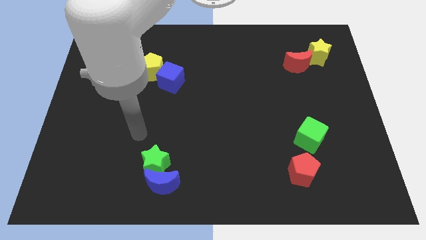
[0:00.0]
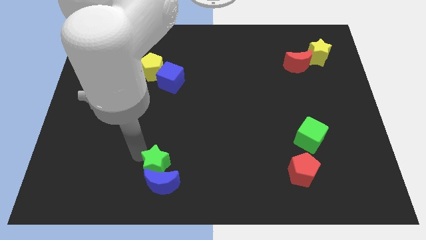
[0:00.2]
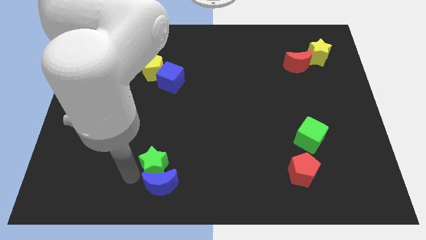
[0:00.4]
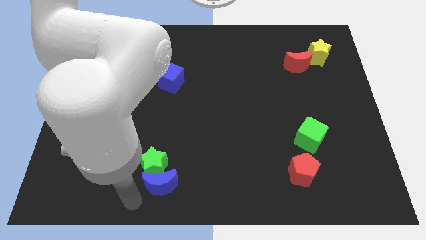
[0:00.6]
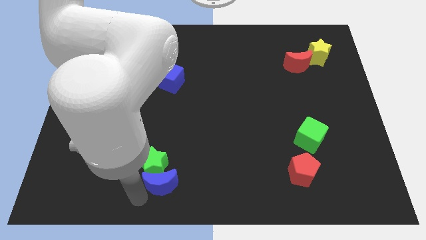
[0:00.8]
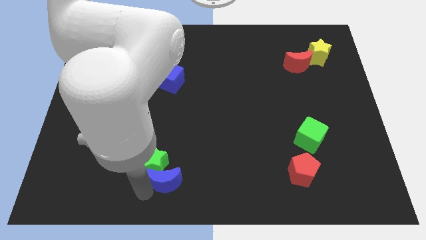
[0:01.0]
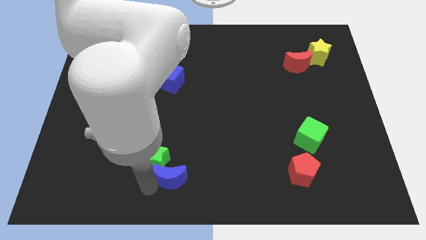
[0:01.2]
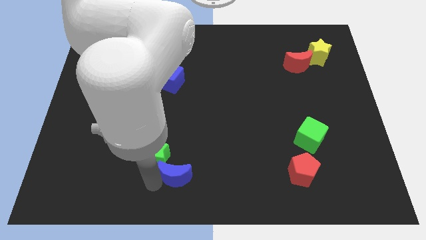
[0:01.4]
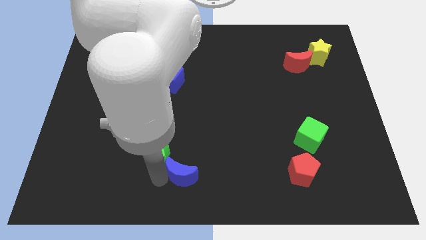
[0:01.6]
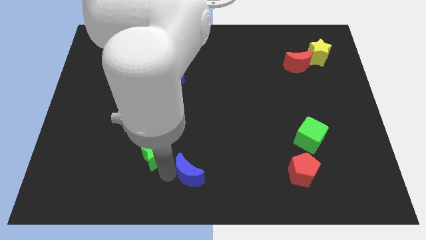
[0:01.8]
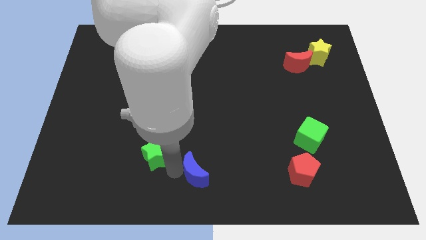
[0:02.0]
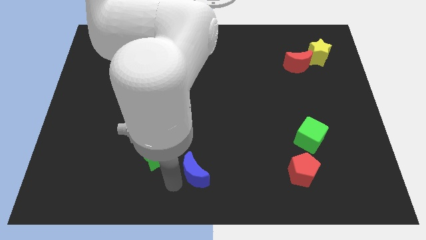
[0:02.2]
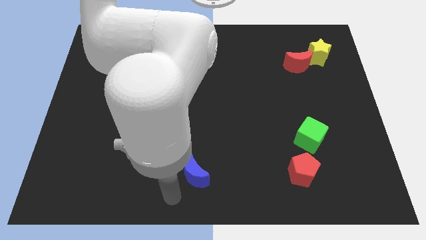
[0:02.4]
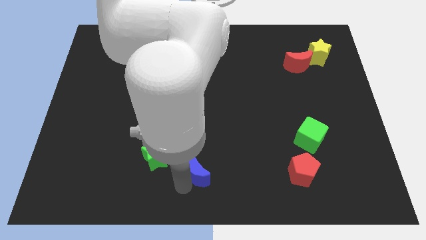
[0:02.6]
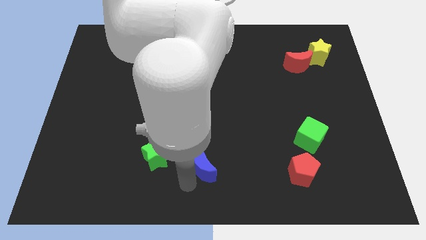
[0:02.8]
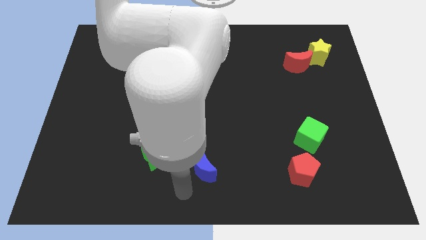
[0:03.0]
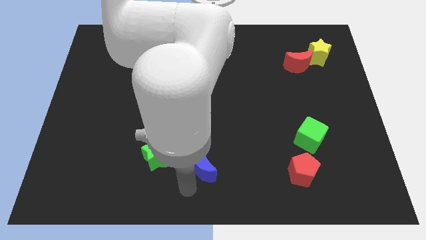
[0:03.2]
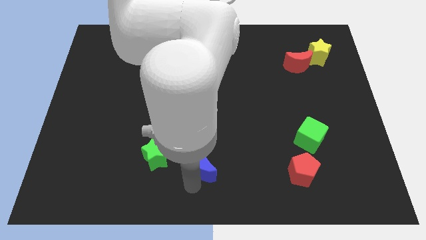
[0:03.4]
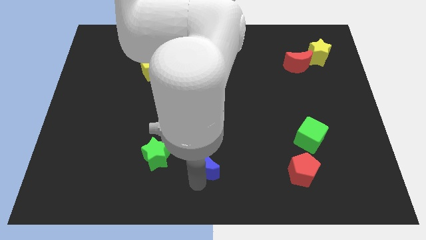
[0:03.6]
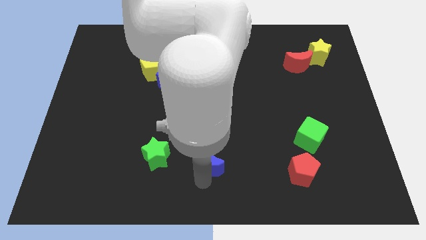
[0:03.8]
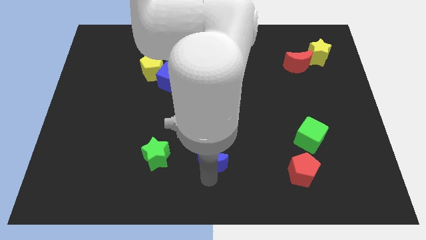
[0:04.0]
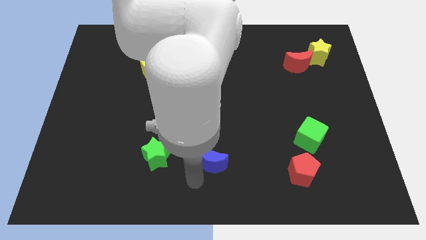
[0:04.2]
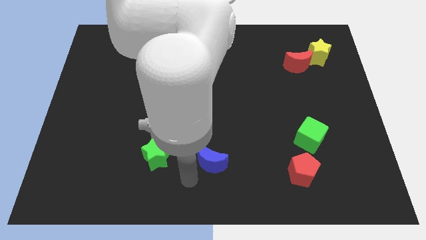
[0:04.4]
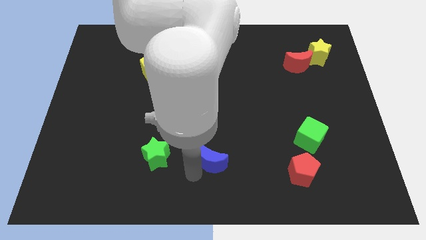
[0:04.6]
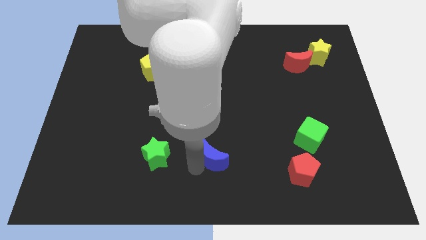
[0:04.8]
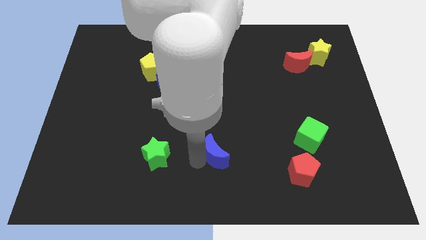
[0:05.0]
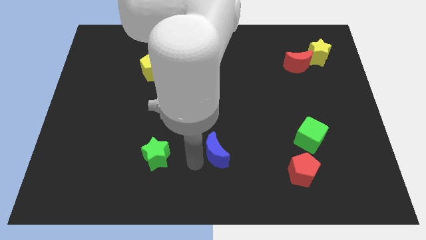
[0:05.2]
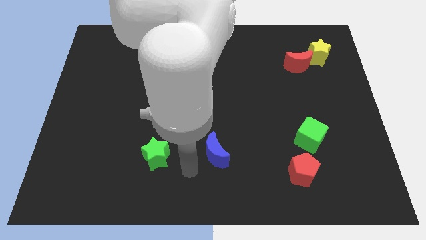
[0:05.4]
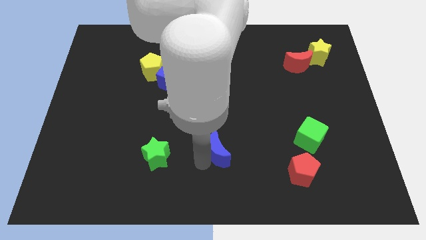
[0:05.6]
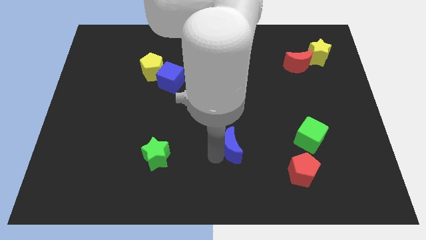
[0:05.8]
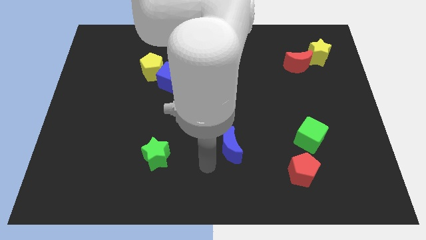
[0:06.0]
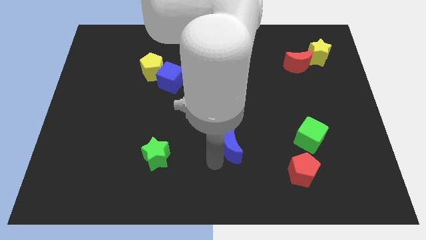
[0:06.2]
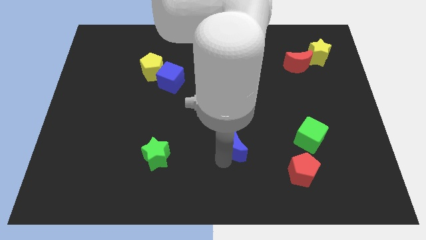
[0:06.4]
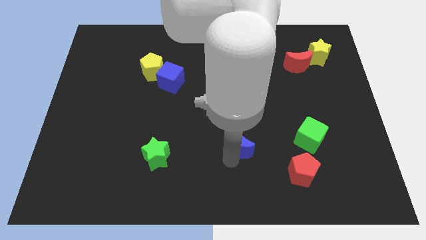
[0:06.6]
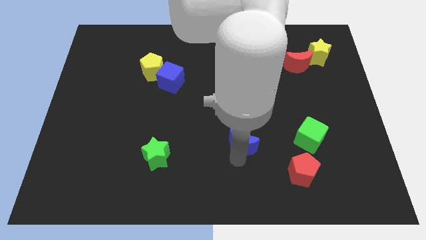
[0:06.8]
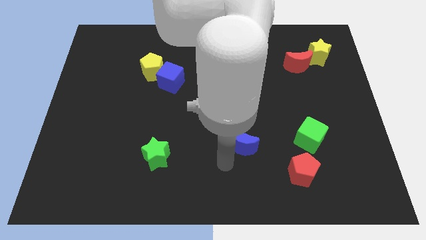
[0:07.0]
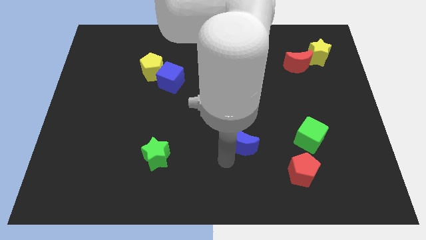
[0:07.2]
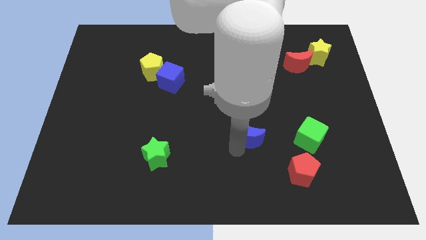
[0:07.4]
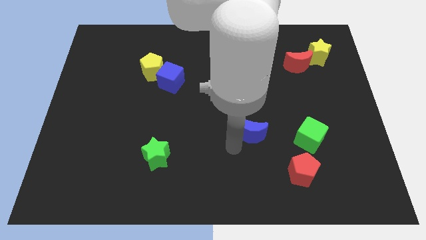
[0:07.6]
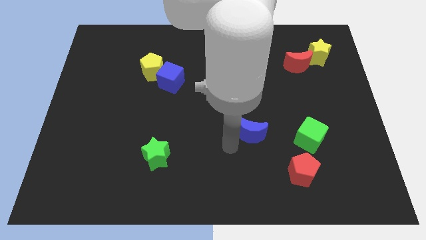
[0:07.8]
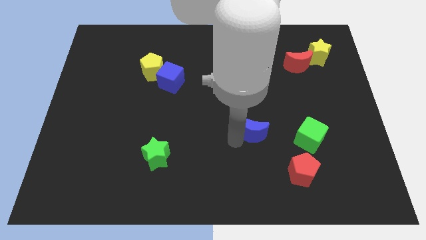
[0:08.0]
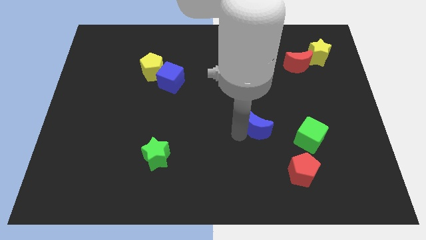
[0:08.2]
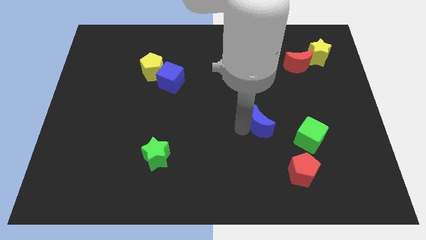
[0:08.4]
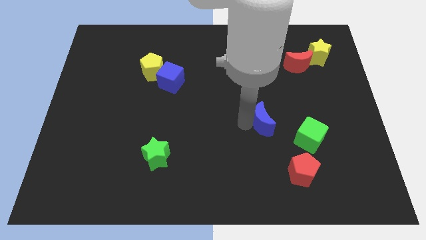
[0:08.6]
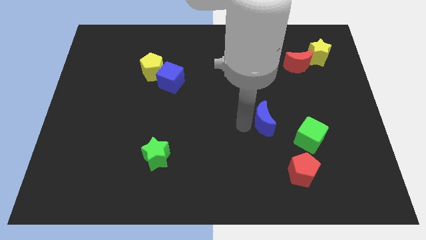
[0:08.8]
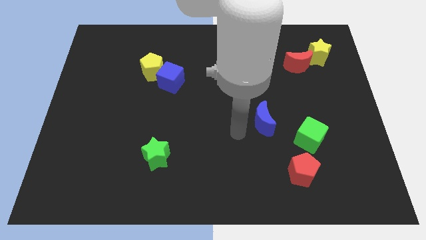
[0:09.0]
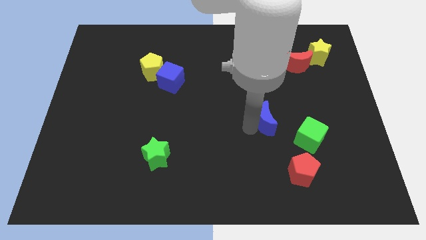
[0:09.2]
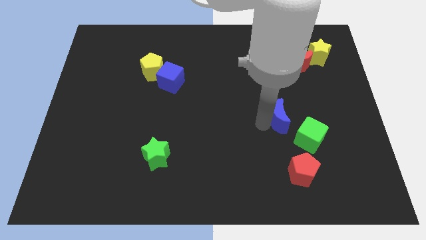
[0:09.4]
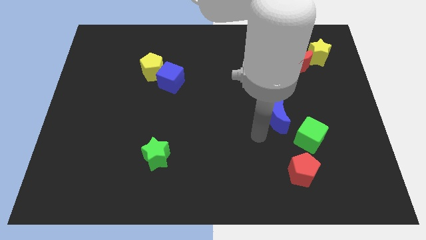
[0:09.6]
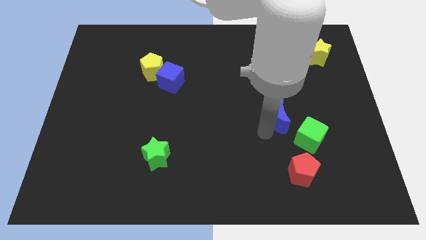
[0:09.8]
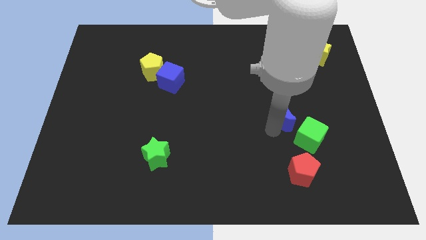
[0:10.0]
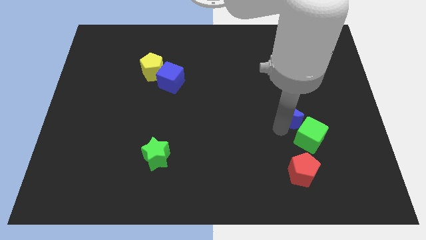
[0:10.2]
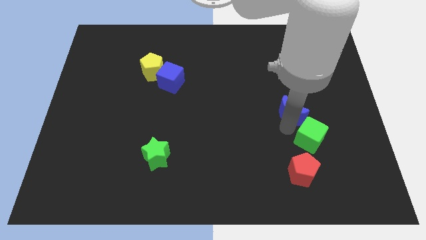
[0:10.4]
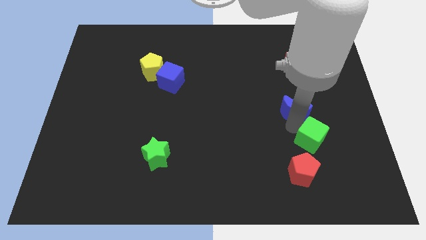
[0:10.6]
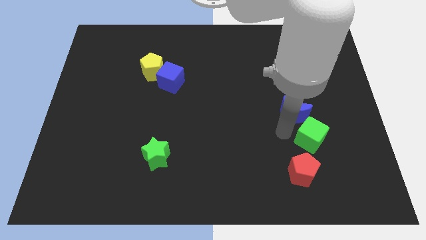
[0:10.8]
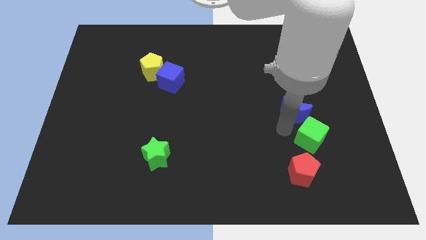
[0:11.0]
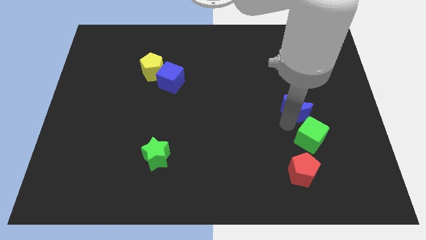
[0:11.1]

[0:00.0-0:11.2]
slide the blue moon to the bottom of the red moon

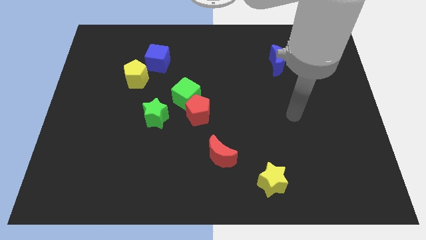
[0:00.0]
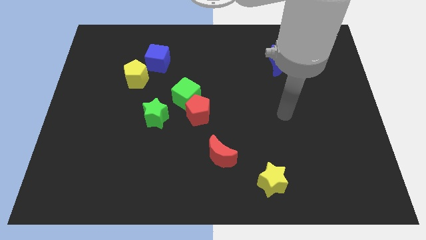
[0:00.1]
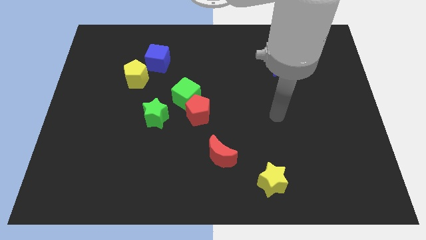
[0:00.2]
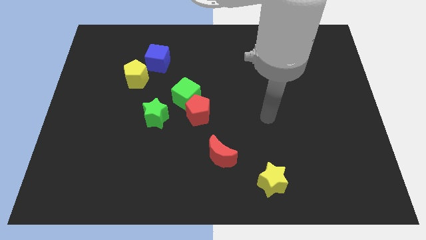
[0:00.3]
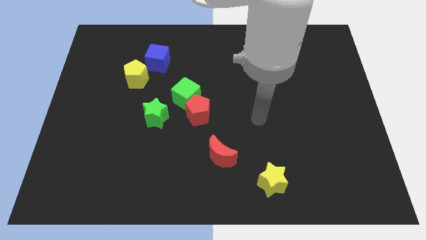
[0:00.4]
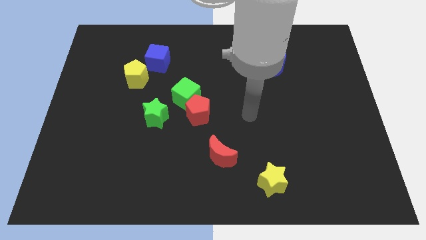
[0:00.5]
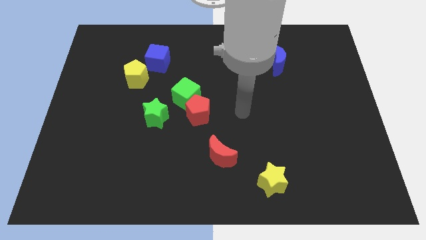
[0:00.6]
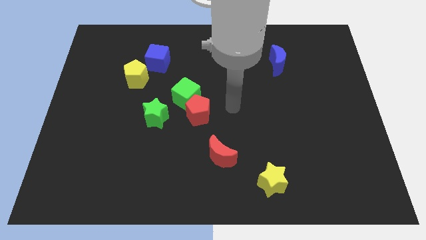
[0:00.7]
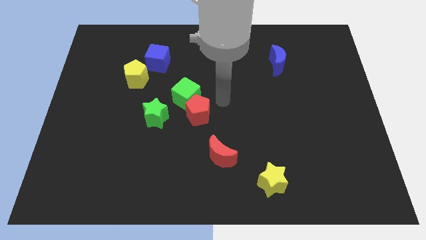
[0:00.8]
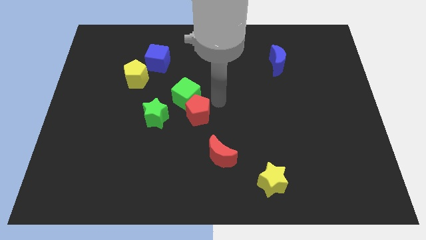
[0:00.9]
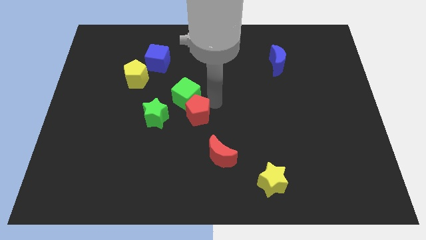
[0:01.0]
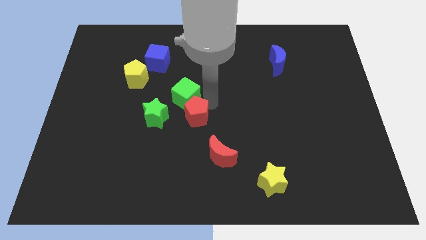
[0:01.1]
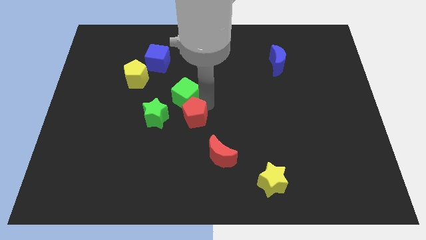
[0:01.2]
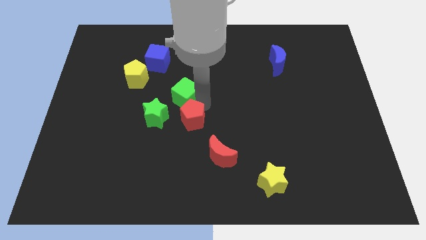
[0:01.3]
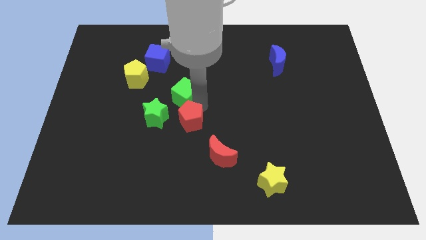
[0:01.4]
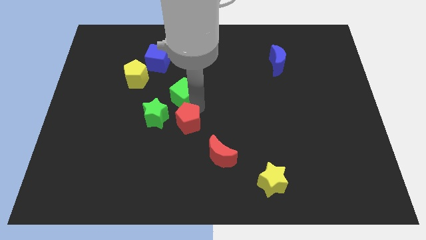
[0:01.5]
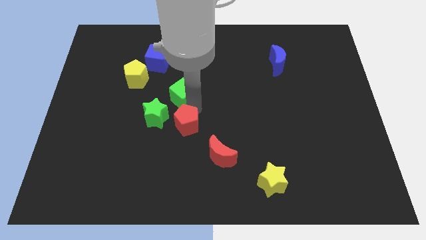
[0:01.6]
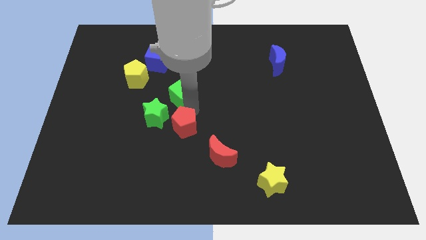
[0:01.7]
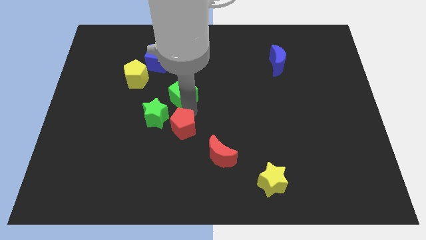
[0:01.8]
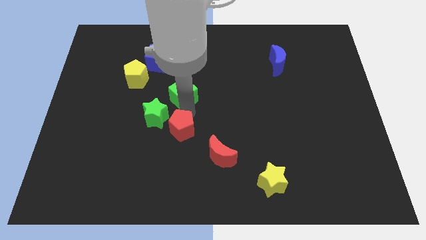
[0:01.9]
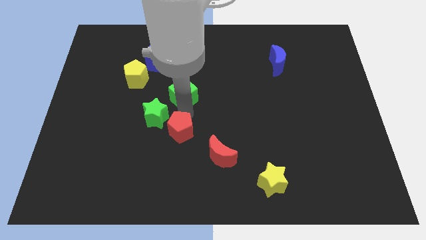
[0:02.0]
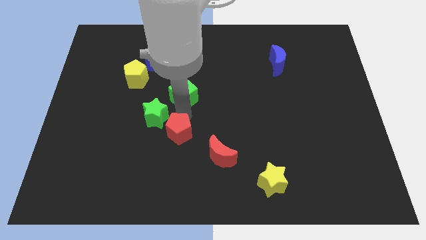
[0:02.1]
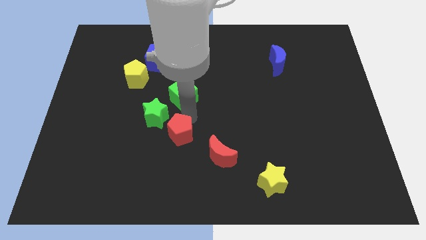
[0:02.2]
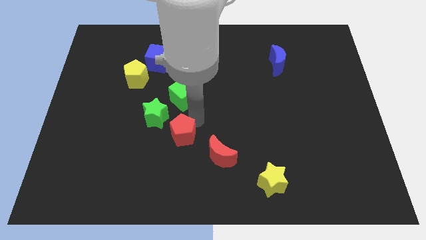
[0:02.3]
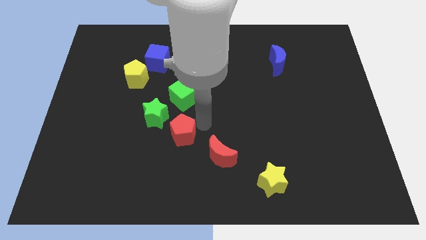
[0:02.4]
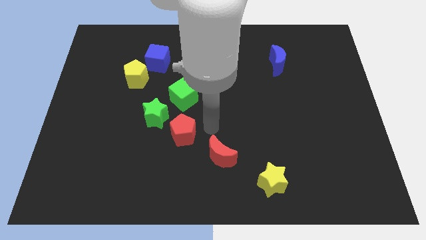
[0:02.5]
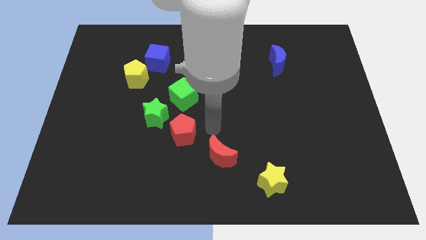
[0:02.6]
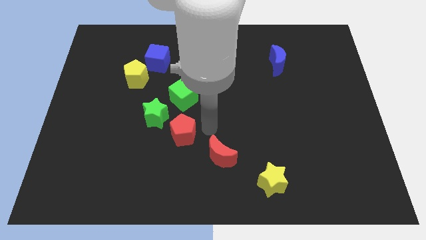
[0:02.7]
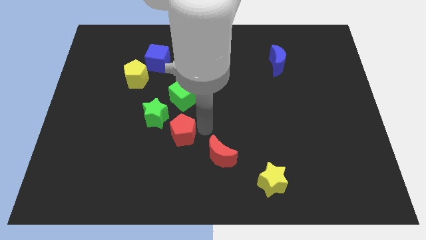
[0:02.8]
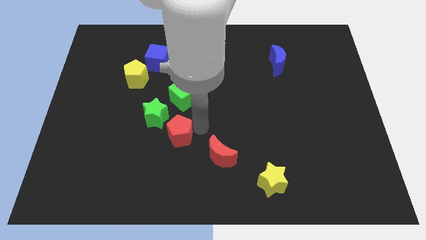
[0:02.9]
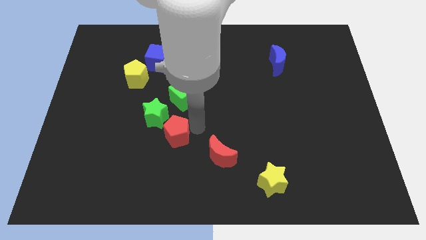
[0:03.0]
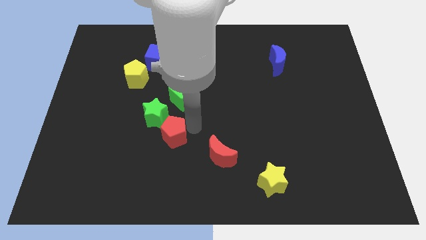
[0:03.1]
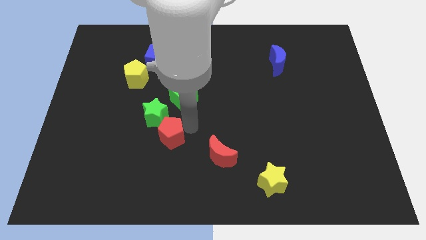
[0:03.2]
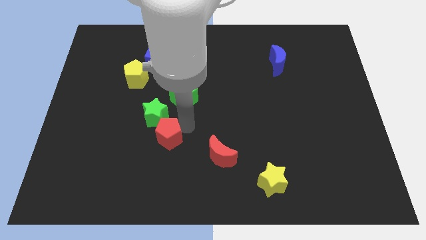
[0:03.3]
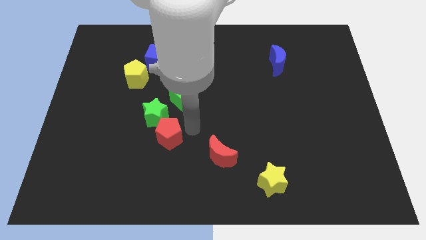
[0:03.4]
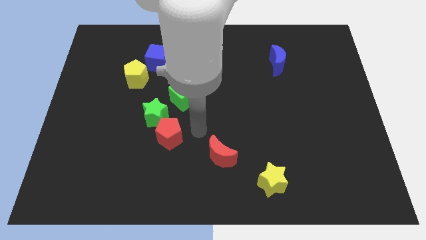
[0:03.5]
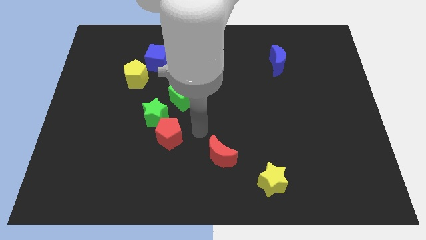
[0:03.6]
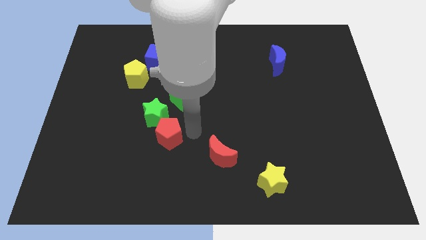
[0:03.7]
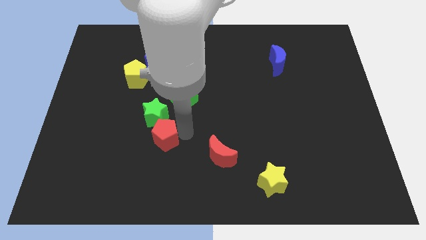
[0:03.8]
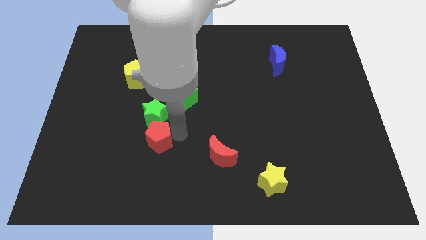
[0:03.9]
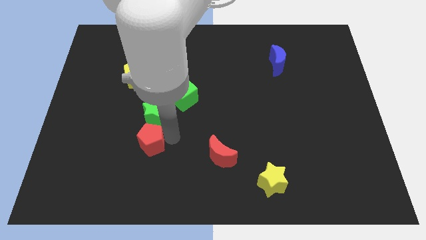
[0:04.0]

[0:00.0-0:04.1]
put the red pentagon to the bottom left of the green star
